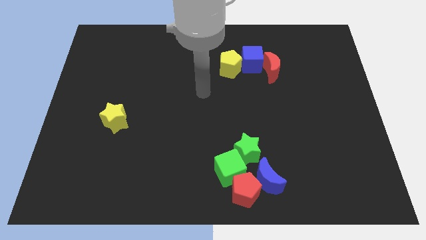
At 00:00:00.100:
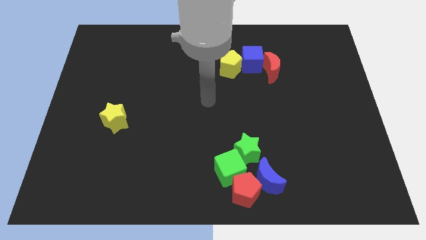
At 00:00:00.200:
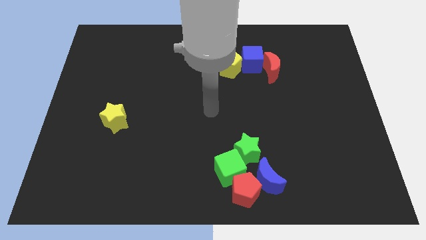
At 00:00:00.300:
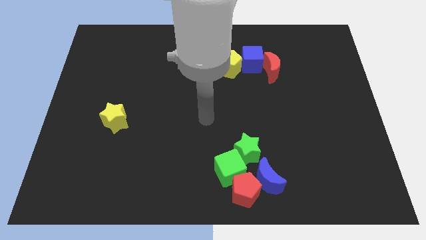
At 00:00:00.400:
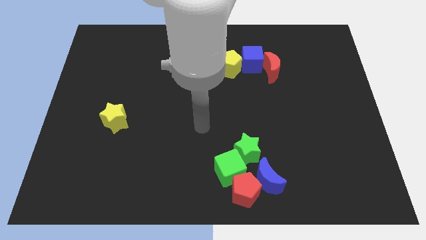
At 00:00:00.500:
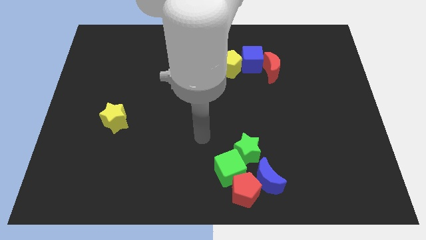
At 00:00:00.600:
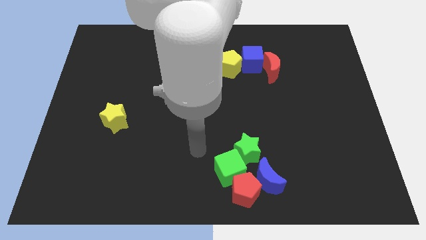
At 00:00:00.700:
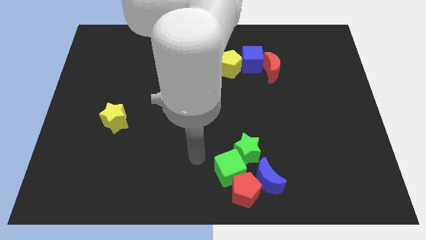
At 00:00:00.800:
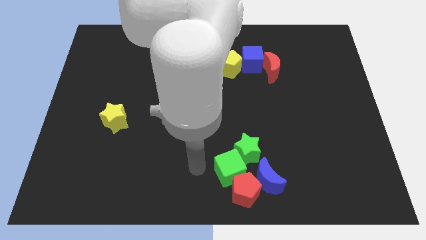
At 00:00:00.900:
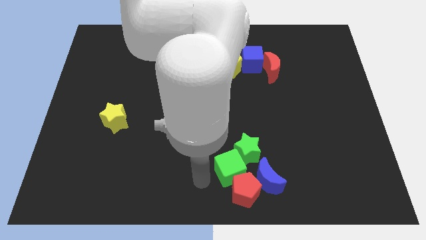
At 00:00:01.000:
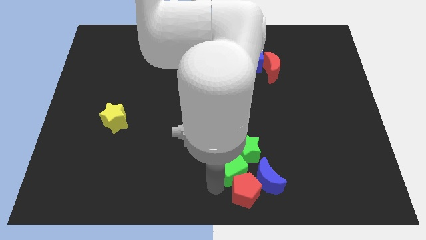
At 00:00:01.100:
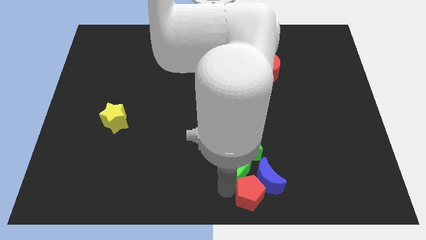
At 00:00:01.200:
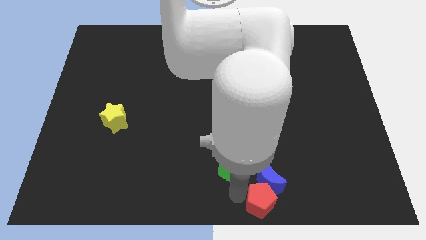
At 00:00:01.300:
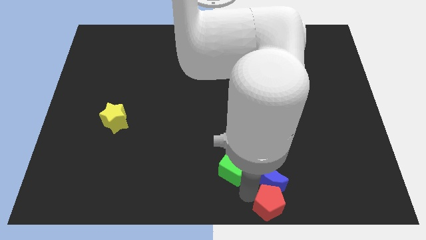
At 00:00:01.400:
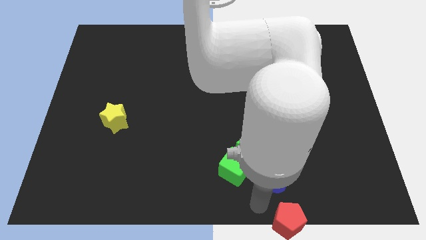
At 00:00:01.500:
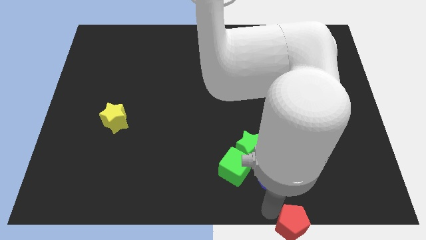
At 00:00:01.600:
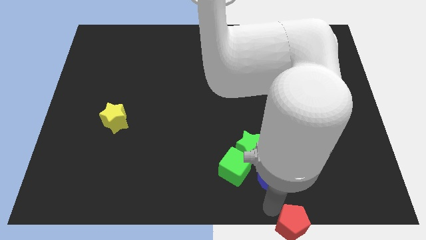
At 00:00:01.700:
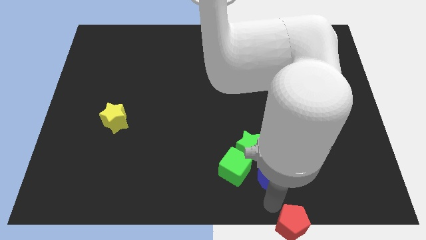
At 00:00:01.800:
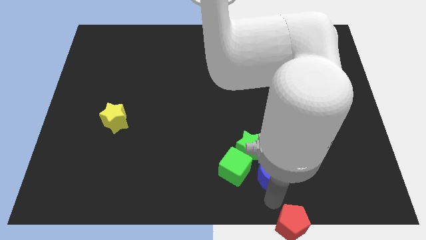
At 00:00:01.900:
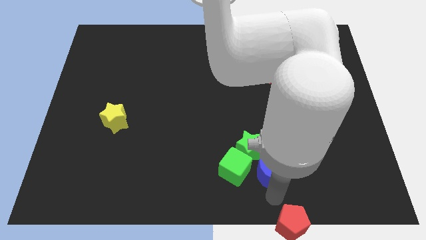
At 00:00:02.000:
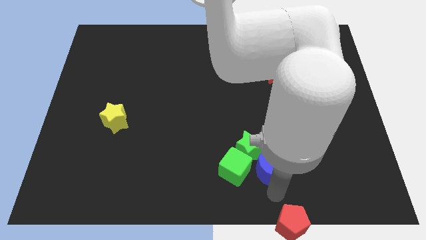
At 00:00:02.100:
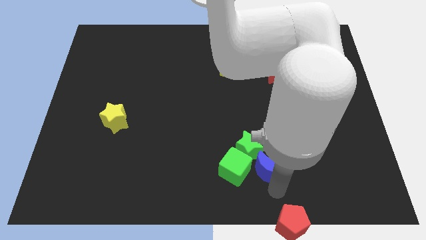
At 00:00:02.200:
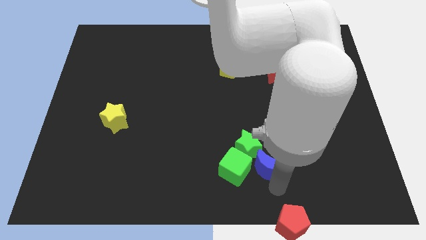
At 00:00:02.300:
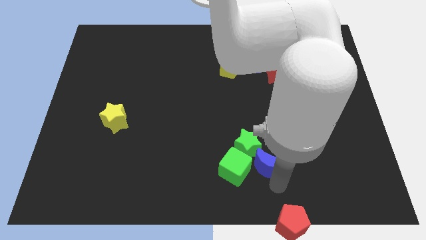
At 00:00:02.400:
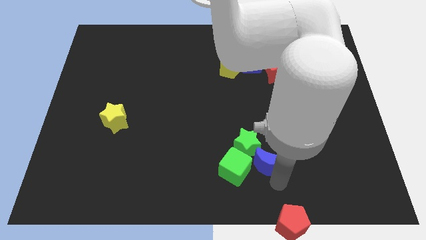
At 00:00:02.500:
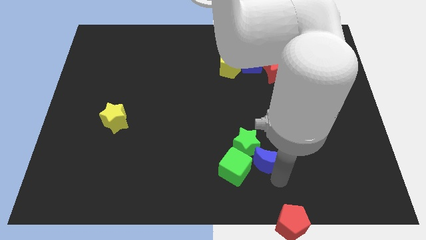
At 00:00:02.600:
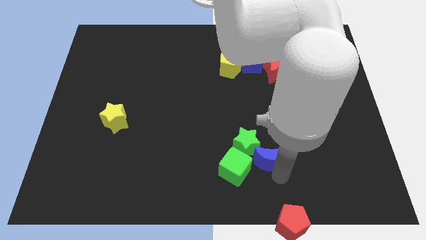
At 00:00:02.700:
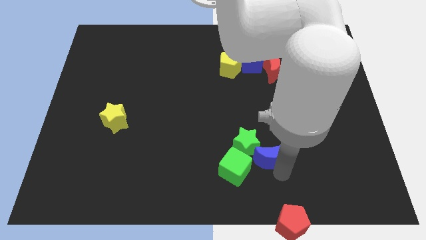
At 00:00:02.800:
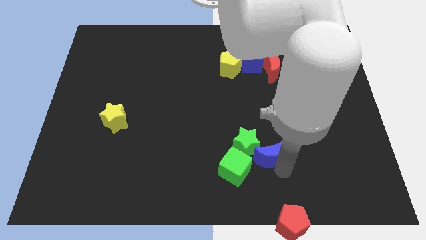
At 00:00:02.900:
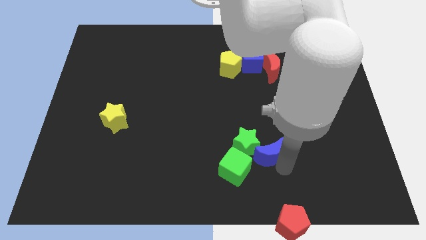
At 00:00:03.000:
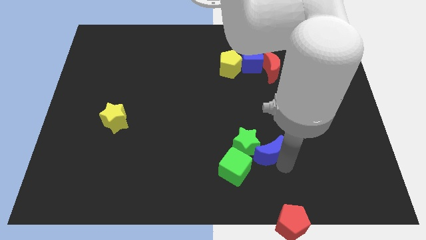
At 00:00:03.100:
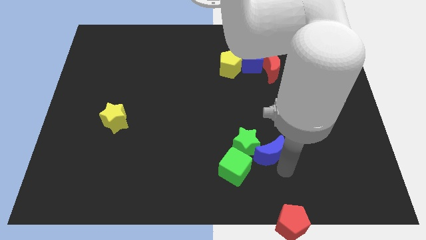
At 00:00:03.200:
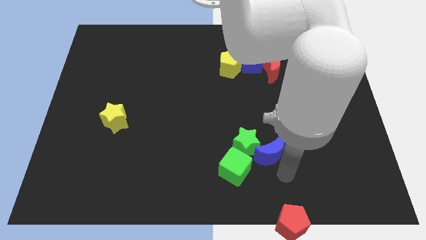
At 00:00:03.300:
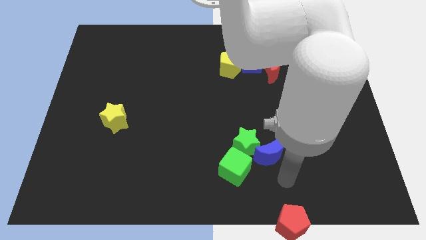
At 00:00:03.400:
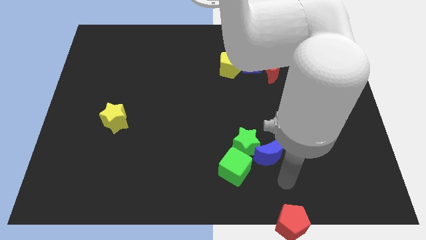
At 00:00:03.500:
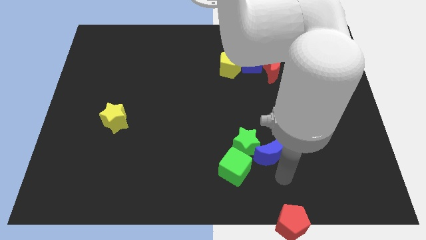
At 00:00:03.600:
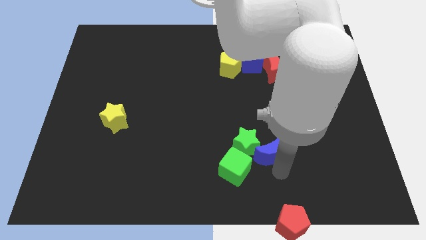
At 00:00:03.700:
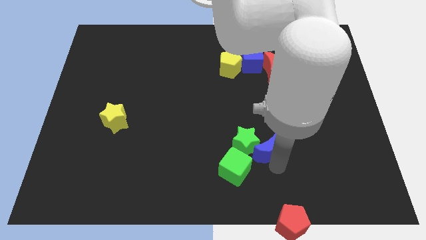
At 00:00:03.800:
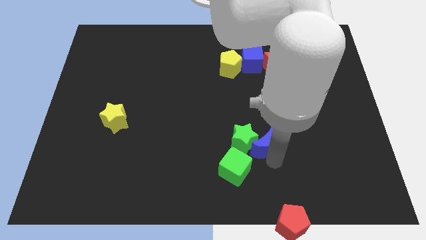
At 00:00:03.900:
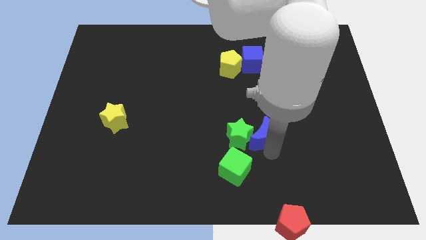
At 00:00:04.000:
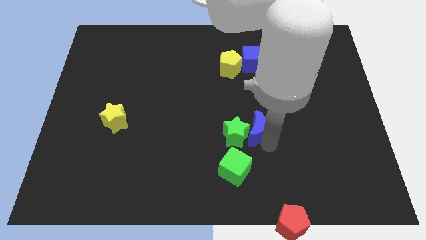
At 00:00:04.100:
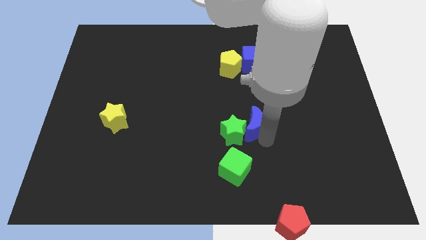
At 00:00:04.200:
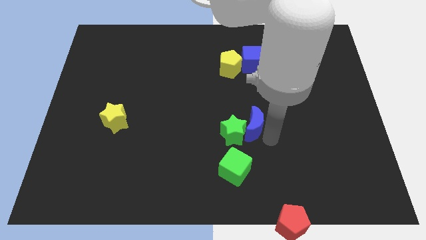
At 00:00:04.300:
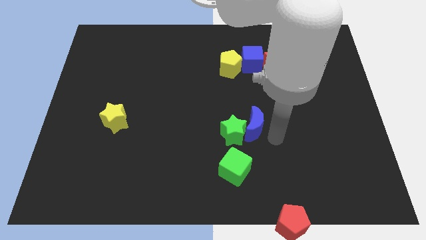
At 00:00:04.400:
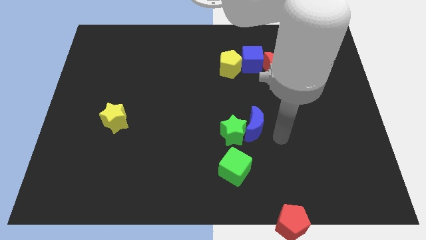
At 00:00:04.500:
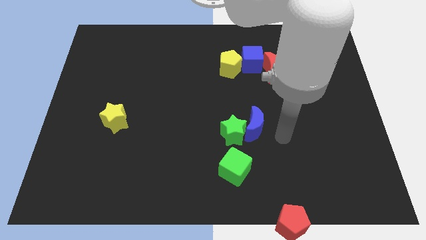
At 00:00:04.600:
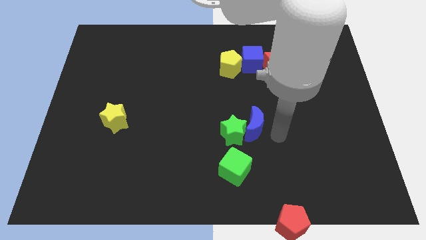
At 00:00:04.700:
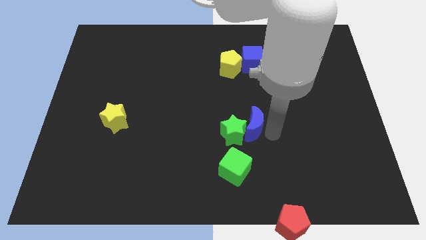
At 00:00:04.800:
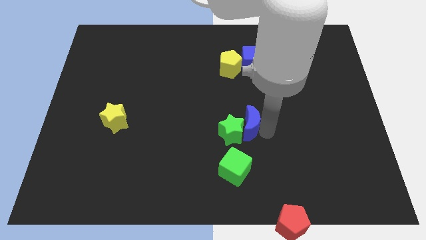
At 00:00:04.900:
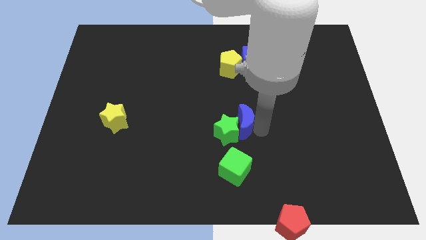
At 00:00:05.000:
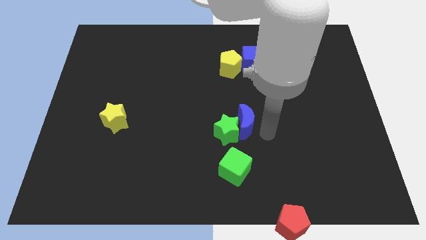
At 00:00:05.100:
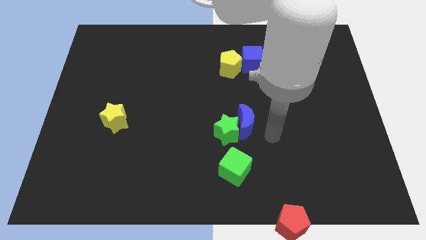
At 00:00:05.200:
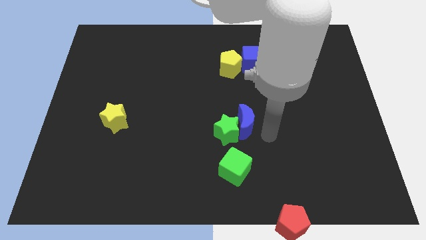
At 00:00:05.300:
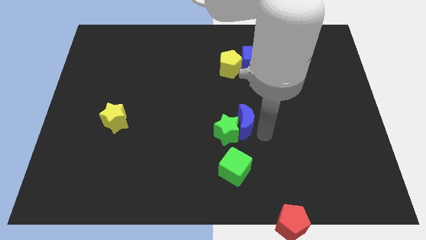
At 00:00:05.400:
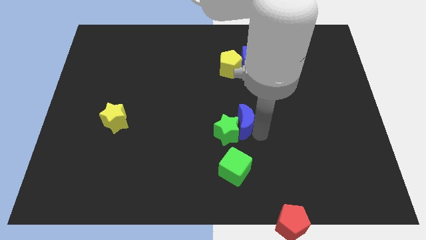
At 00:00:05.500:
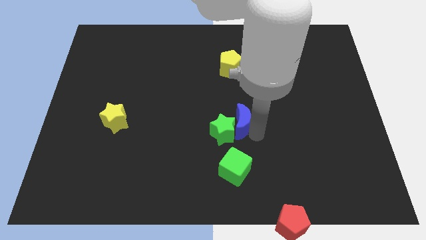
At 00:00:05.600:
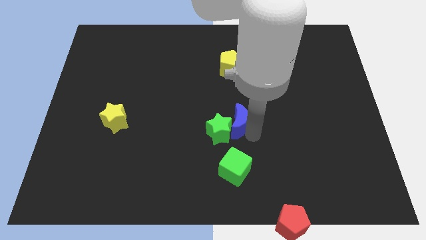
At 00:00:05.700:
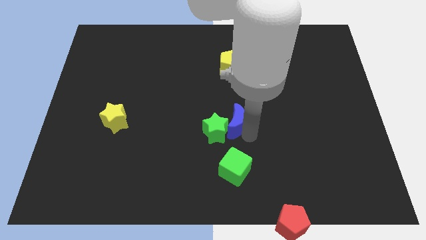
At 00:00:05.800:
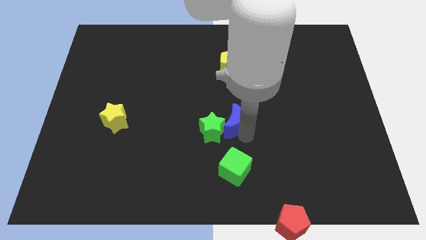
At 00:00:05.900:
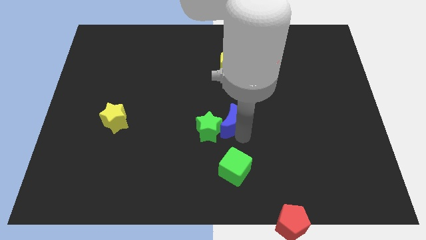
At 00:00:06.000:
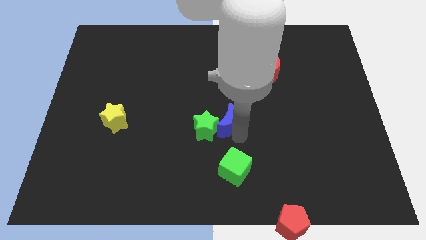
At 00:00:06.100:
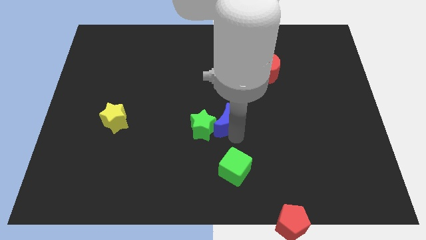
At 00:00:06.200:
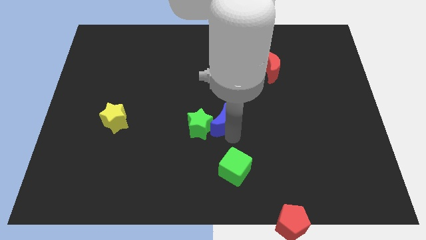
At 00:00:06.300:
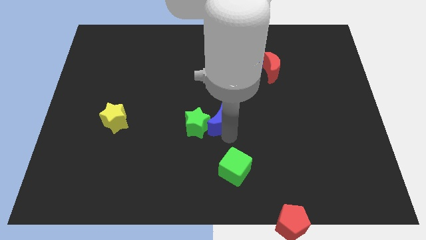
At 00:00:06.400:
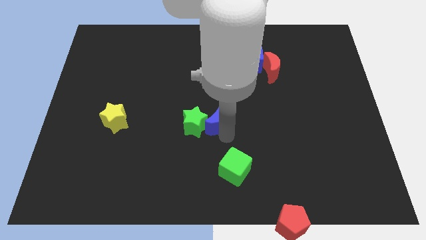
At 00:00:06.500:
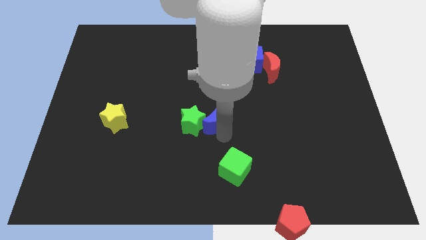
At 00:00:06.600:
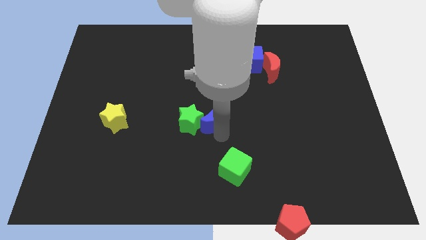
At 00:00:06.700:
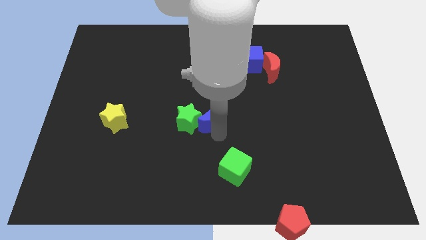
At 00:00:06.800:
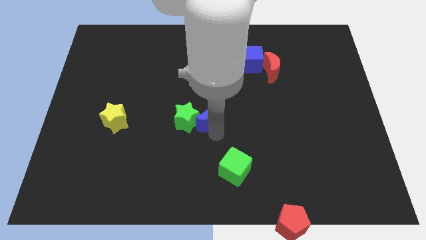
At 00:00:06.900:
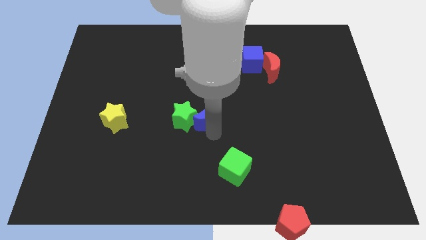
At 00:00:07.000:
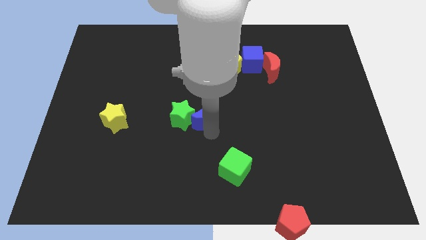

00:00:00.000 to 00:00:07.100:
slide the blue moon up and left diagonally

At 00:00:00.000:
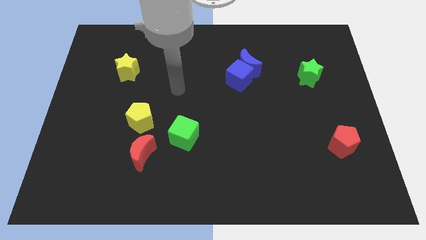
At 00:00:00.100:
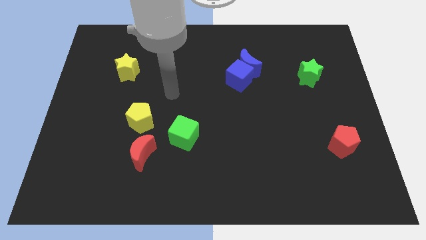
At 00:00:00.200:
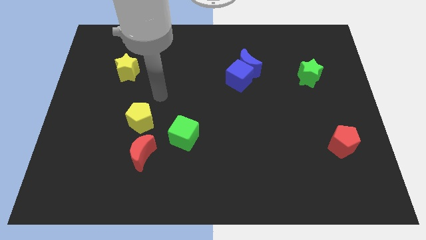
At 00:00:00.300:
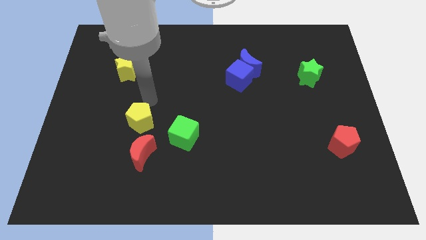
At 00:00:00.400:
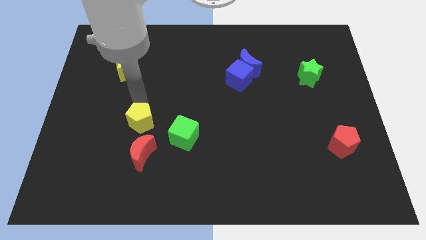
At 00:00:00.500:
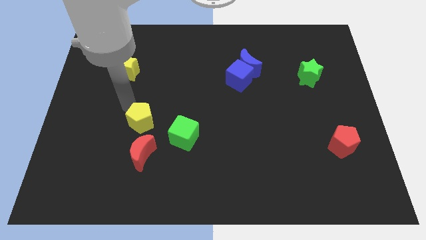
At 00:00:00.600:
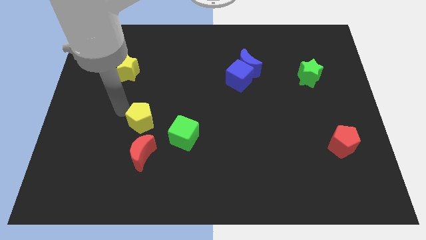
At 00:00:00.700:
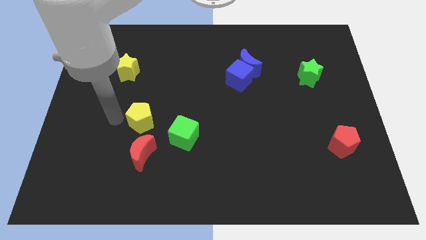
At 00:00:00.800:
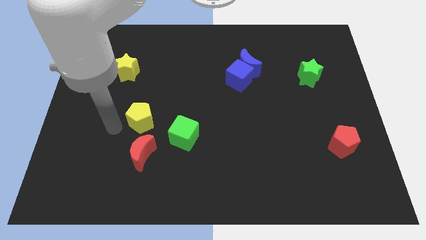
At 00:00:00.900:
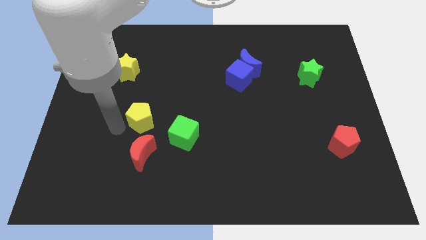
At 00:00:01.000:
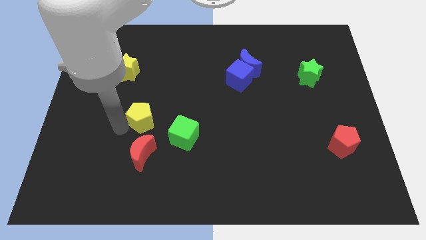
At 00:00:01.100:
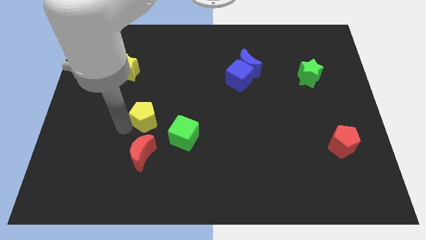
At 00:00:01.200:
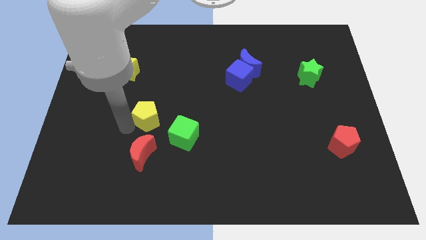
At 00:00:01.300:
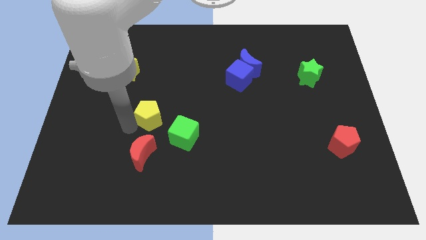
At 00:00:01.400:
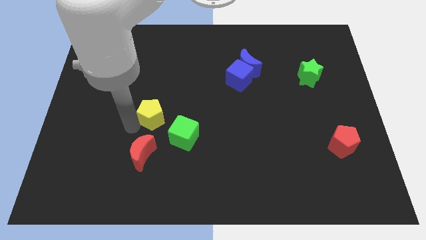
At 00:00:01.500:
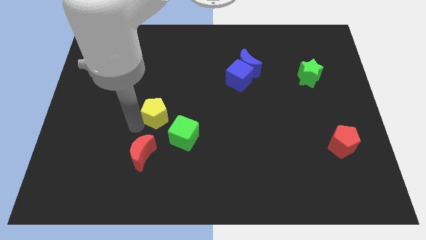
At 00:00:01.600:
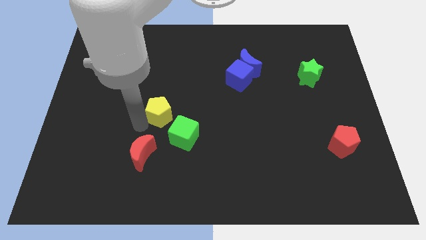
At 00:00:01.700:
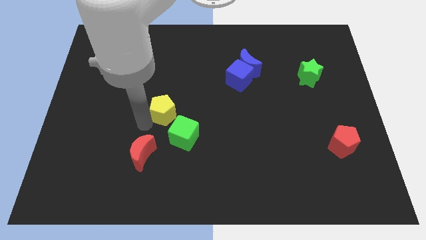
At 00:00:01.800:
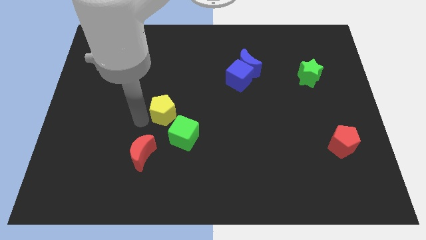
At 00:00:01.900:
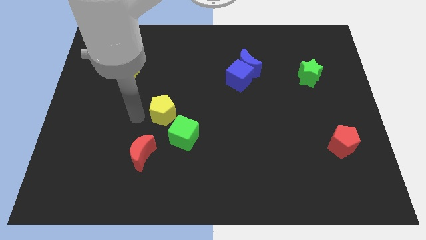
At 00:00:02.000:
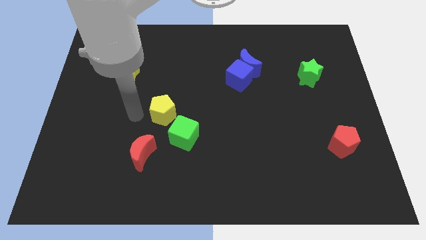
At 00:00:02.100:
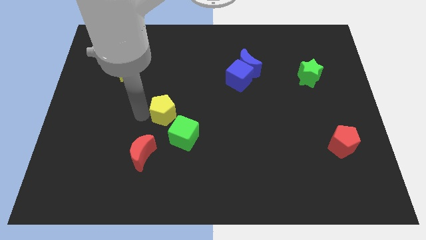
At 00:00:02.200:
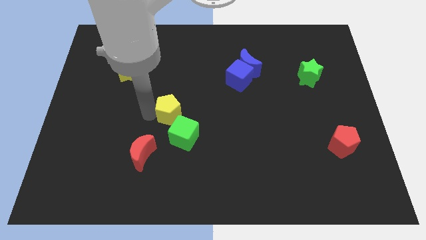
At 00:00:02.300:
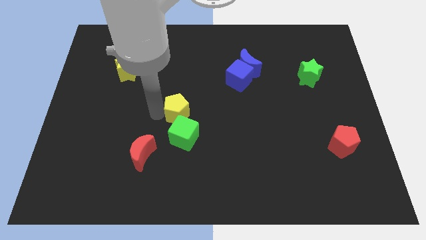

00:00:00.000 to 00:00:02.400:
move the yellow pentagon right a bit
